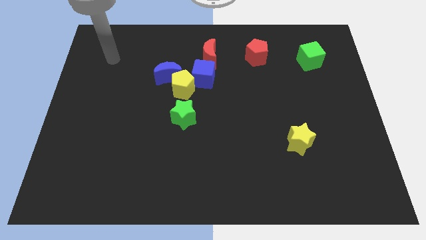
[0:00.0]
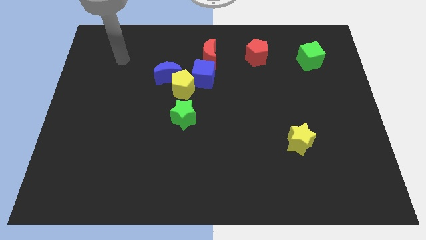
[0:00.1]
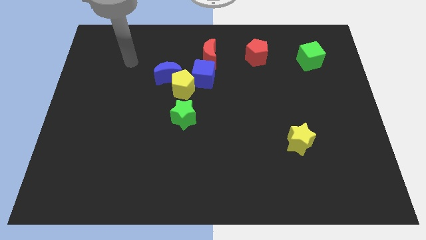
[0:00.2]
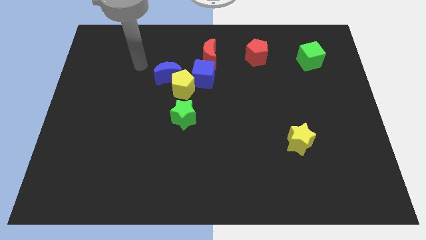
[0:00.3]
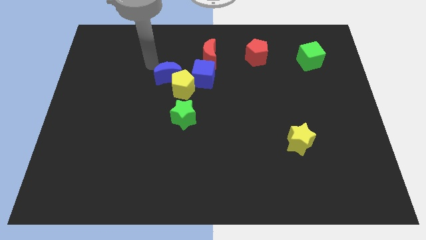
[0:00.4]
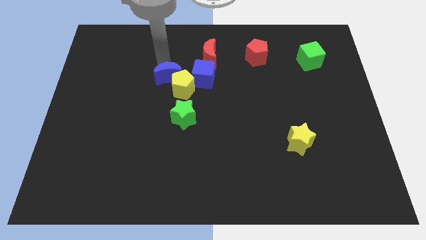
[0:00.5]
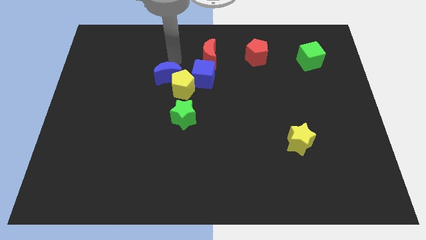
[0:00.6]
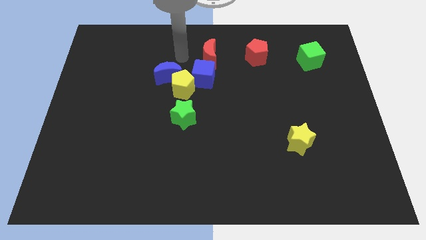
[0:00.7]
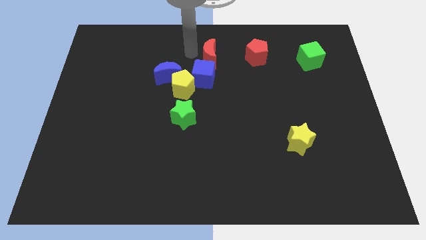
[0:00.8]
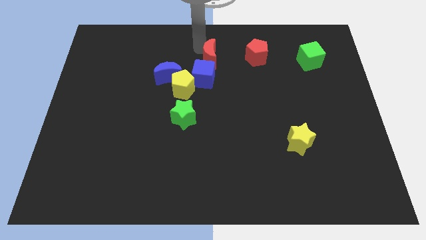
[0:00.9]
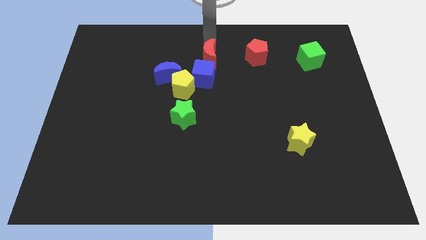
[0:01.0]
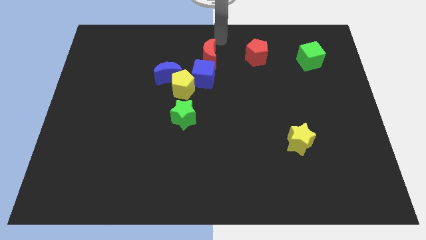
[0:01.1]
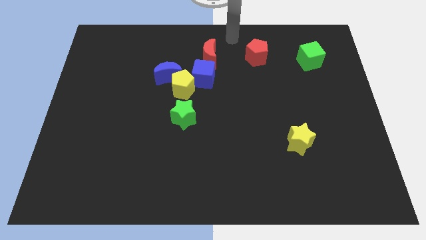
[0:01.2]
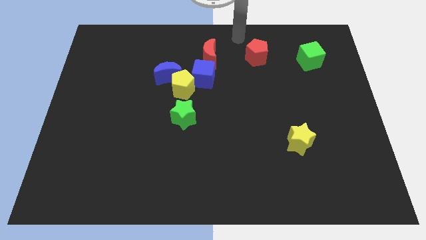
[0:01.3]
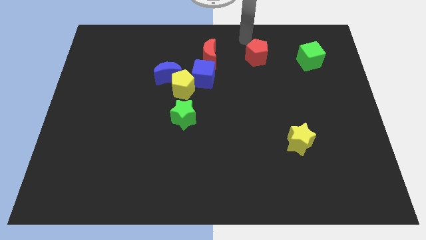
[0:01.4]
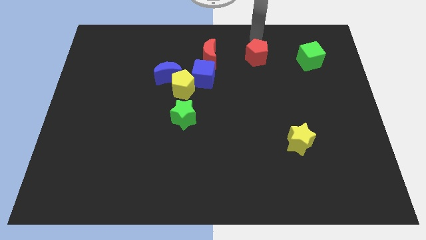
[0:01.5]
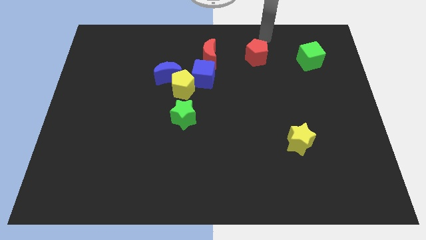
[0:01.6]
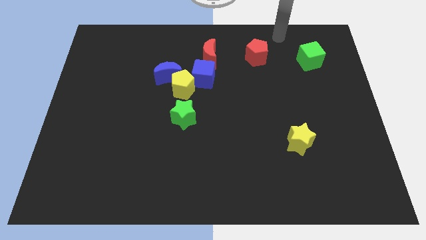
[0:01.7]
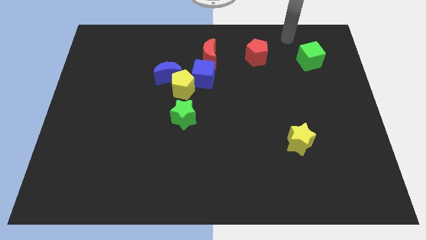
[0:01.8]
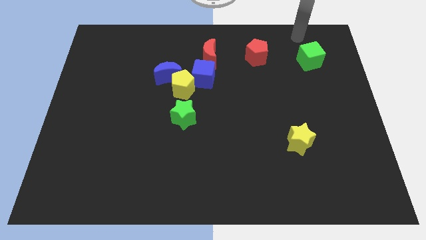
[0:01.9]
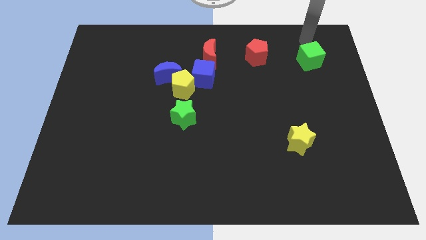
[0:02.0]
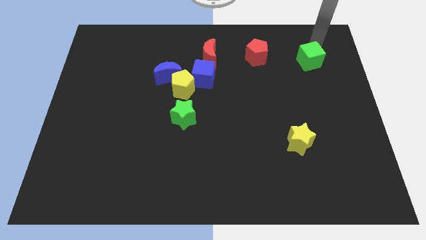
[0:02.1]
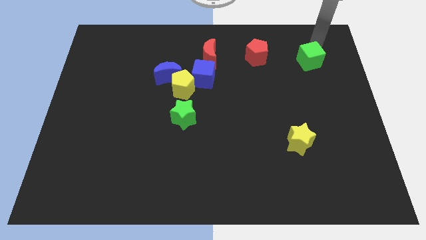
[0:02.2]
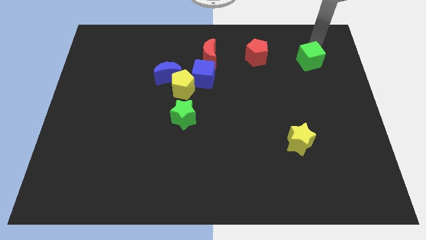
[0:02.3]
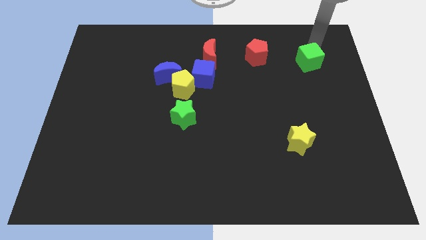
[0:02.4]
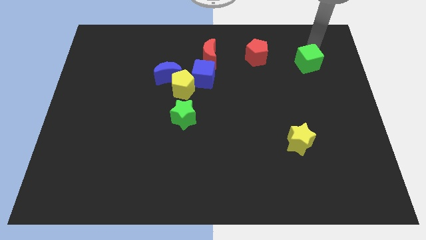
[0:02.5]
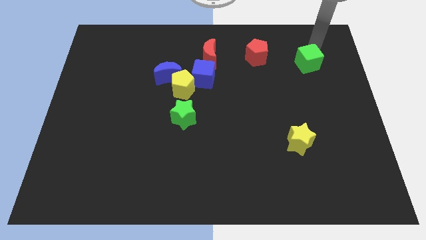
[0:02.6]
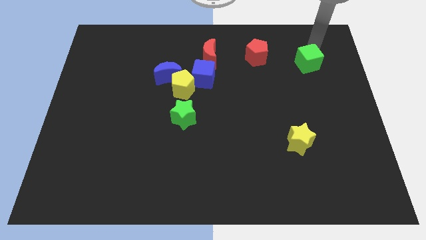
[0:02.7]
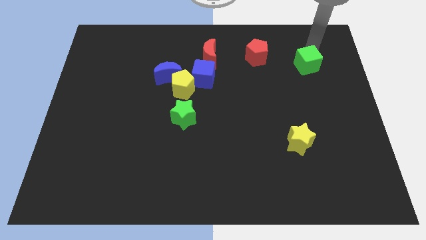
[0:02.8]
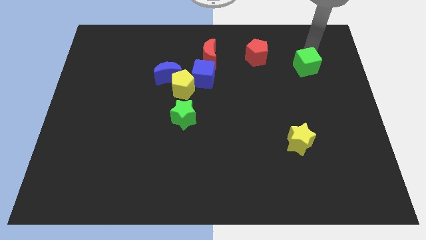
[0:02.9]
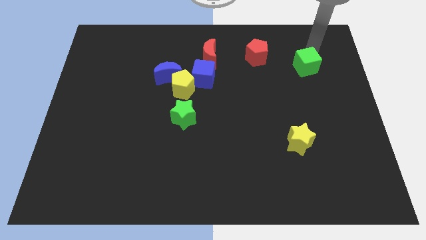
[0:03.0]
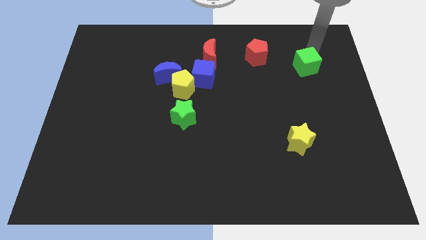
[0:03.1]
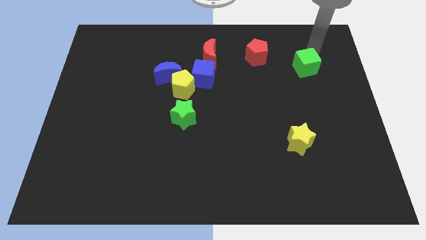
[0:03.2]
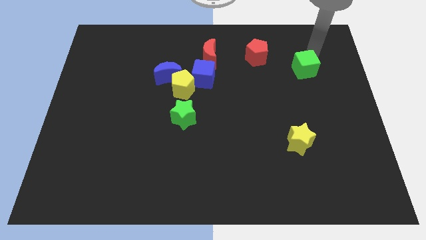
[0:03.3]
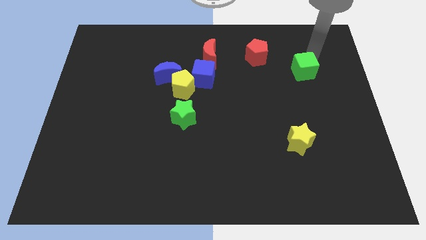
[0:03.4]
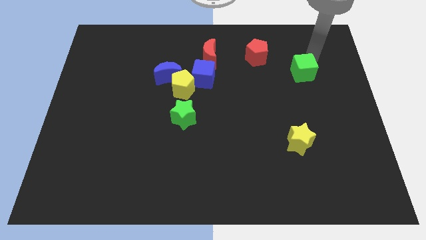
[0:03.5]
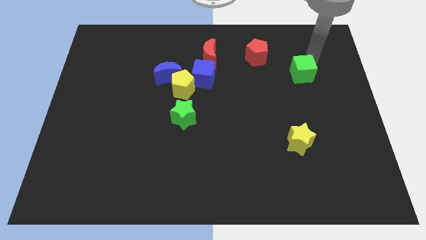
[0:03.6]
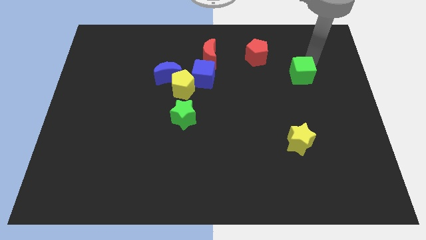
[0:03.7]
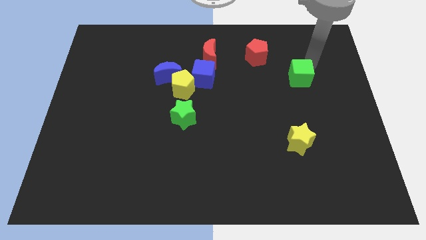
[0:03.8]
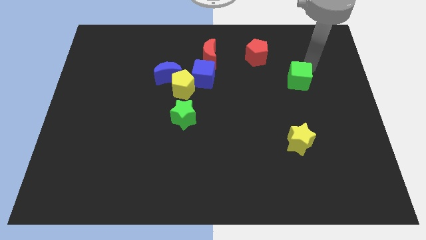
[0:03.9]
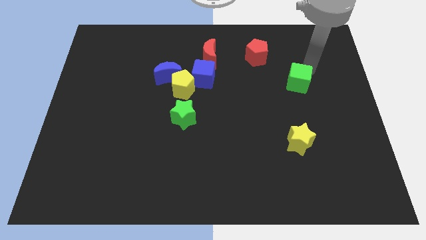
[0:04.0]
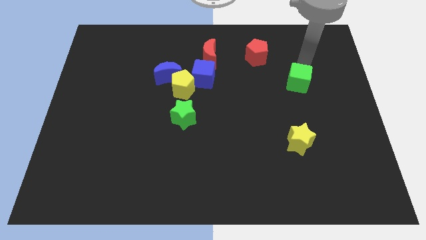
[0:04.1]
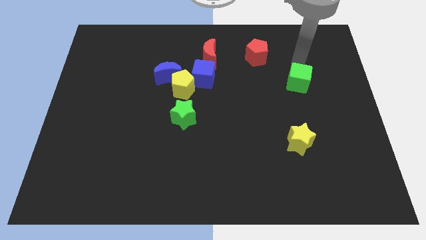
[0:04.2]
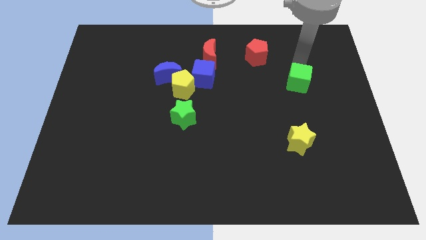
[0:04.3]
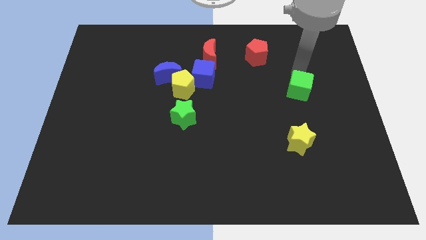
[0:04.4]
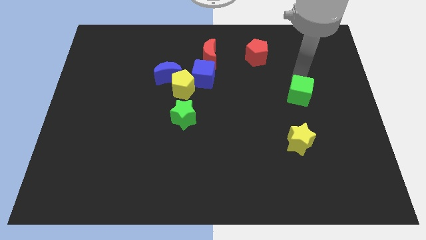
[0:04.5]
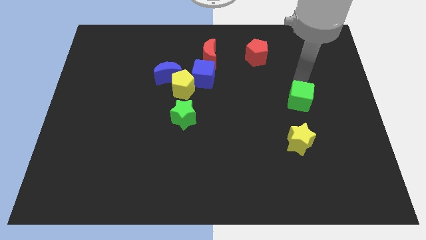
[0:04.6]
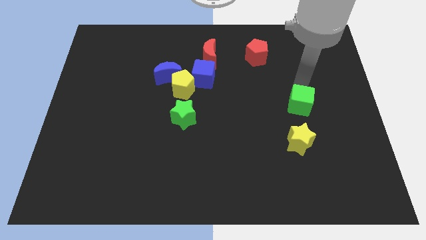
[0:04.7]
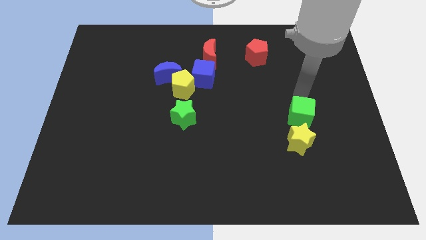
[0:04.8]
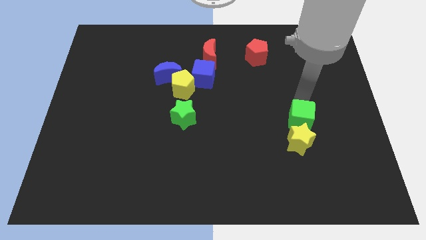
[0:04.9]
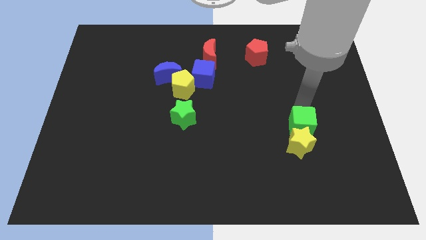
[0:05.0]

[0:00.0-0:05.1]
slide the green cube to the yellow star

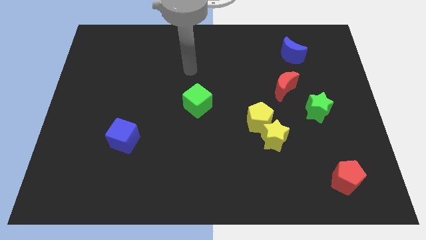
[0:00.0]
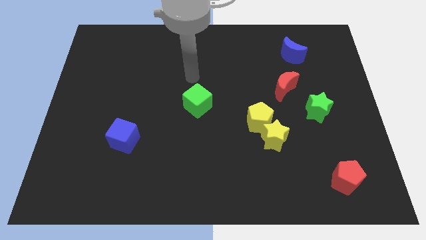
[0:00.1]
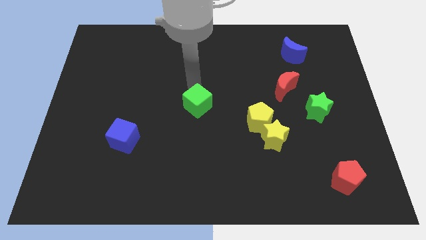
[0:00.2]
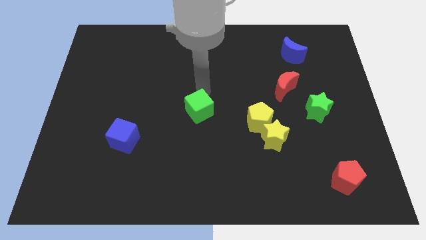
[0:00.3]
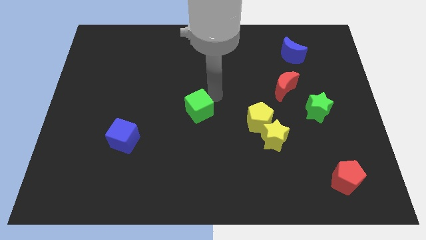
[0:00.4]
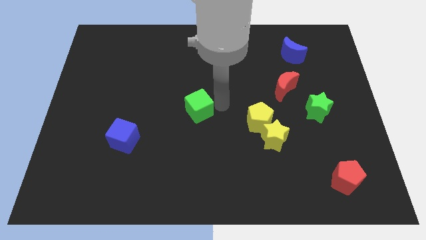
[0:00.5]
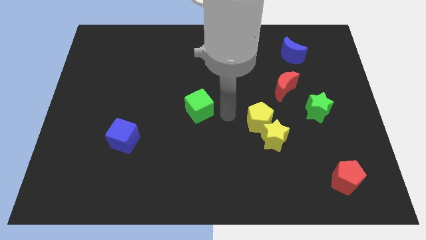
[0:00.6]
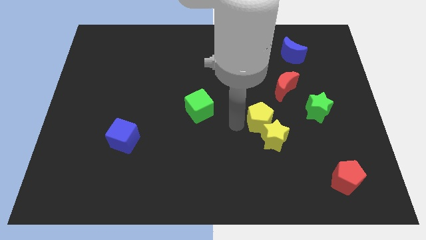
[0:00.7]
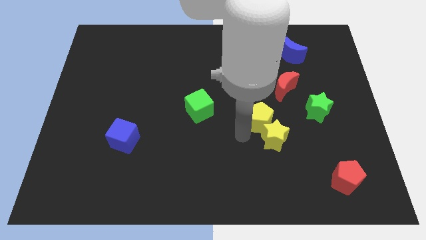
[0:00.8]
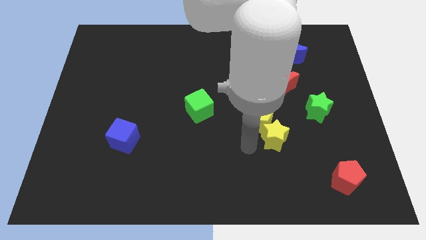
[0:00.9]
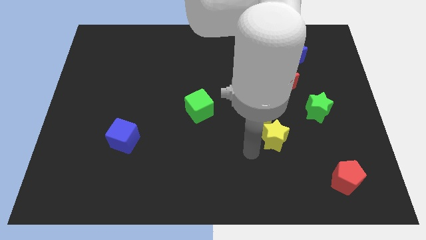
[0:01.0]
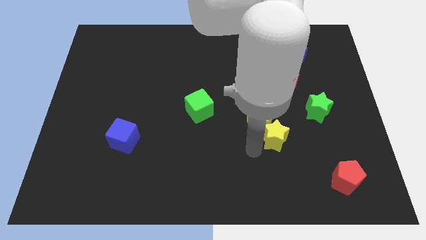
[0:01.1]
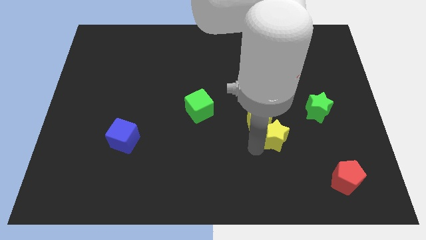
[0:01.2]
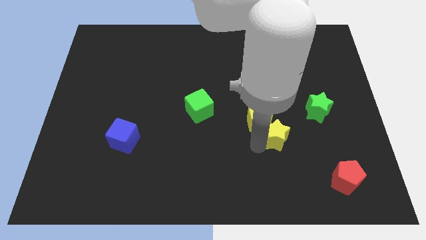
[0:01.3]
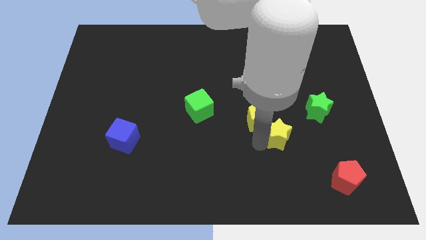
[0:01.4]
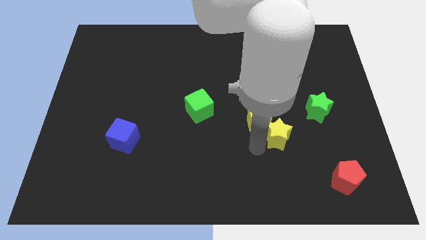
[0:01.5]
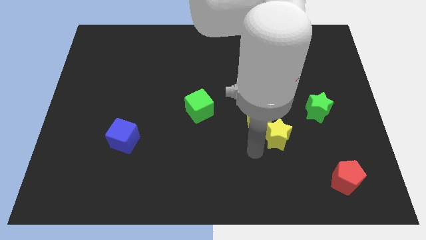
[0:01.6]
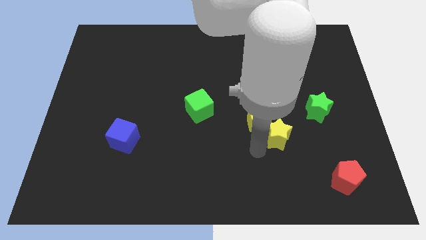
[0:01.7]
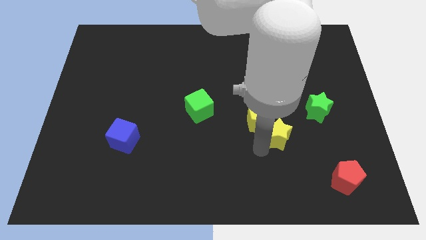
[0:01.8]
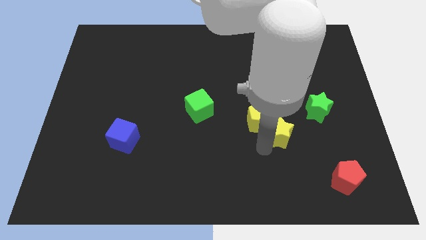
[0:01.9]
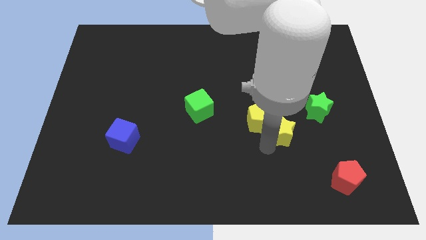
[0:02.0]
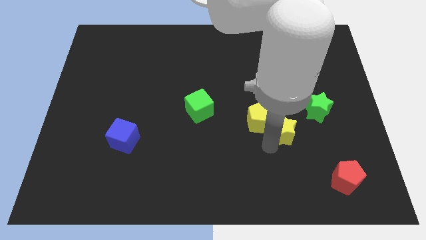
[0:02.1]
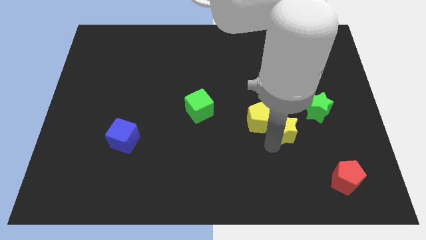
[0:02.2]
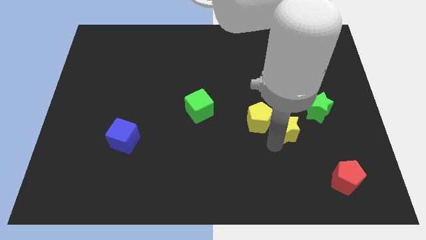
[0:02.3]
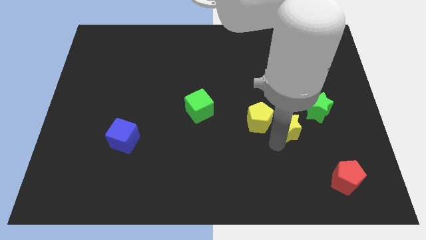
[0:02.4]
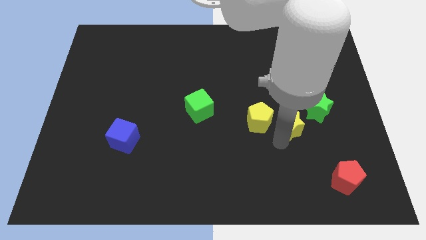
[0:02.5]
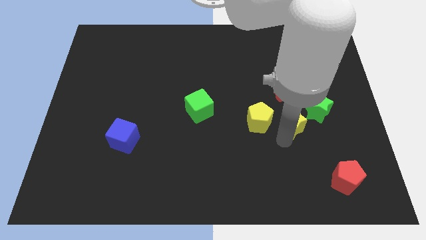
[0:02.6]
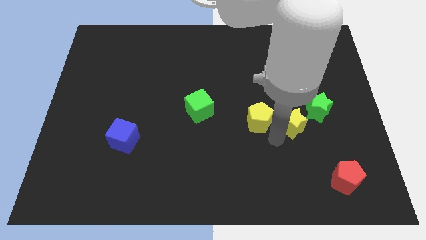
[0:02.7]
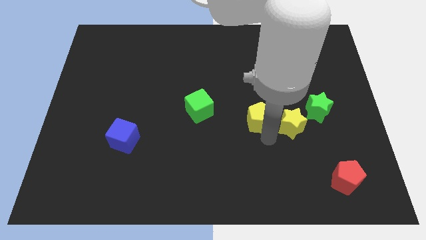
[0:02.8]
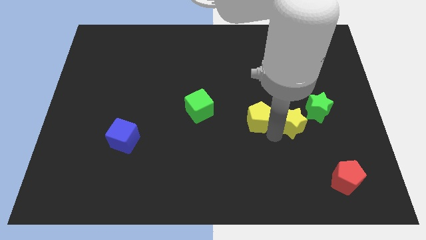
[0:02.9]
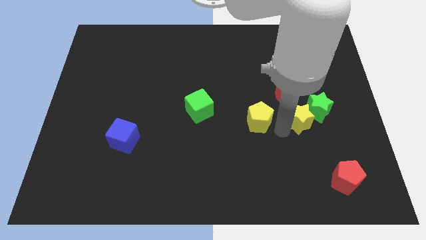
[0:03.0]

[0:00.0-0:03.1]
push the yellow star towards the green star
